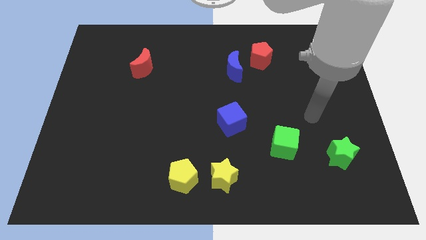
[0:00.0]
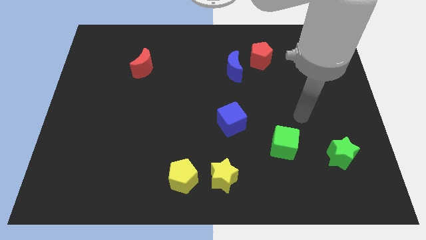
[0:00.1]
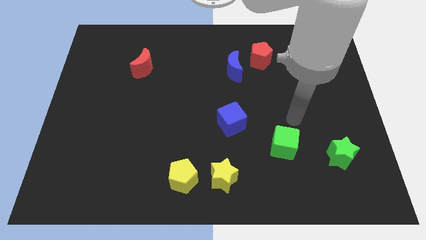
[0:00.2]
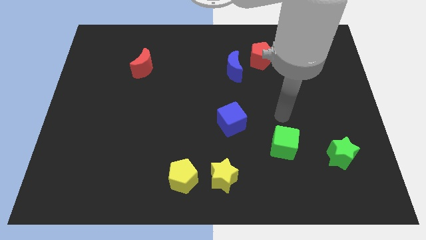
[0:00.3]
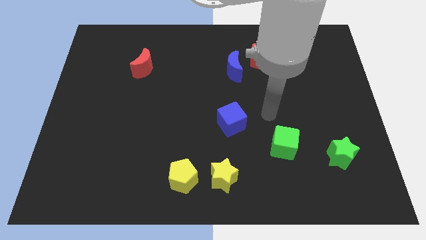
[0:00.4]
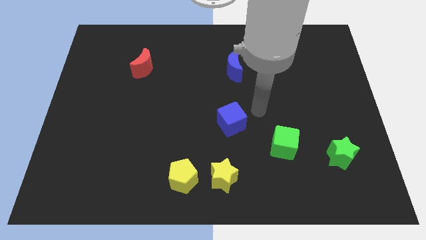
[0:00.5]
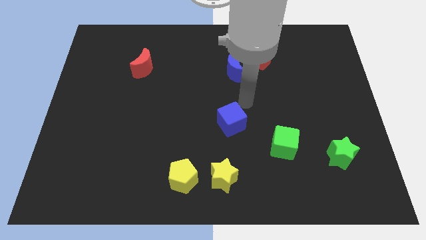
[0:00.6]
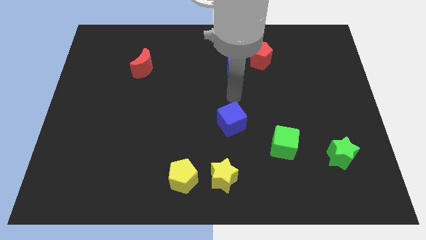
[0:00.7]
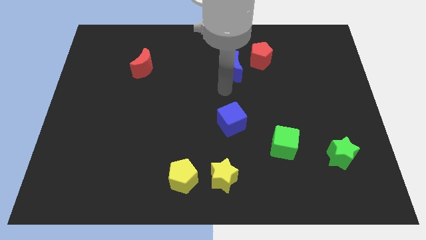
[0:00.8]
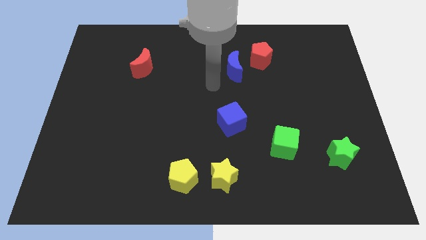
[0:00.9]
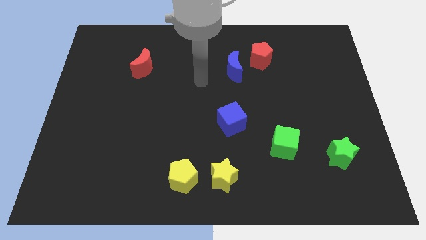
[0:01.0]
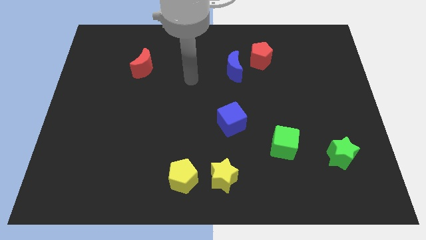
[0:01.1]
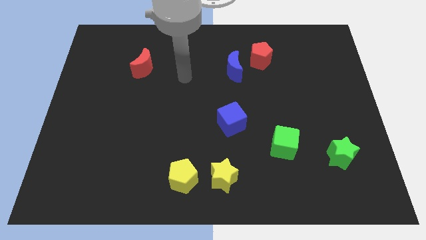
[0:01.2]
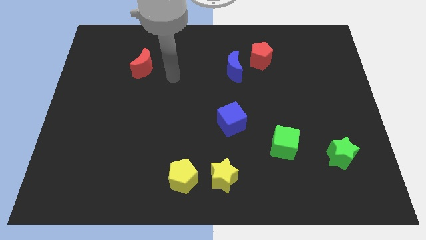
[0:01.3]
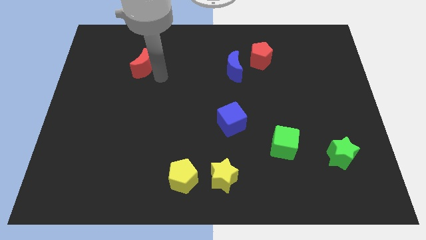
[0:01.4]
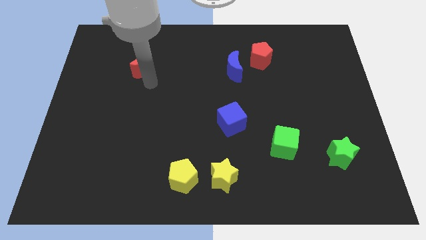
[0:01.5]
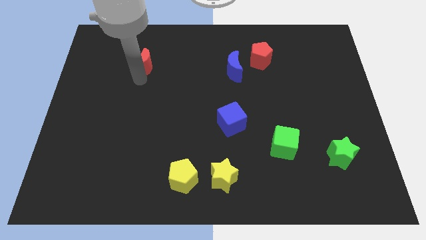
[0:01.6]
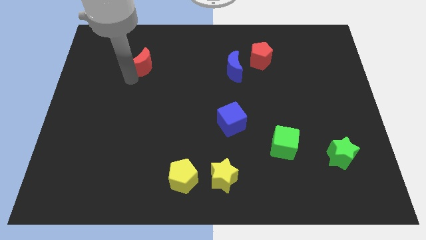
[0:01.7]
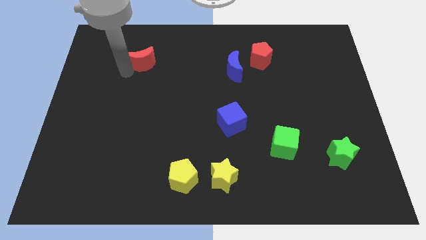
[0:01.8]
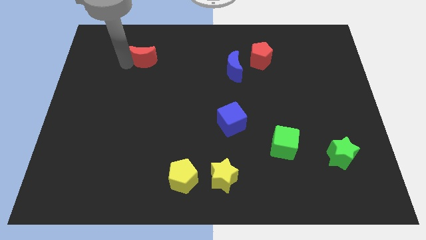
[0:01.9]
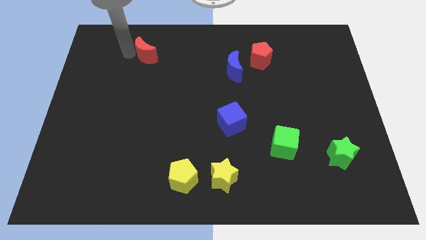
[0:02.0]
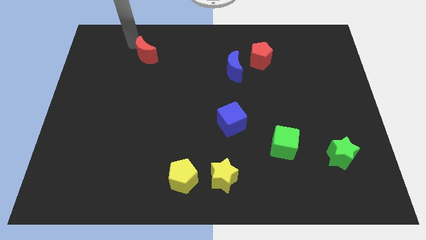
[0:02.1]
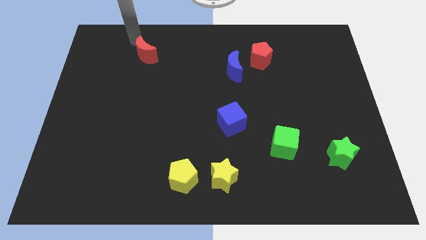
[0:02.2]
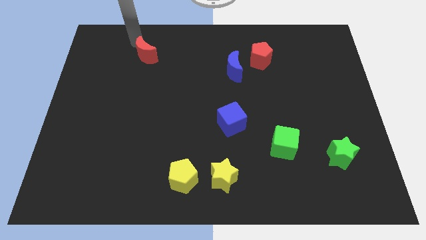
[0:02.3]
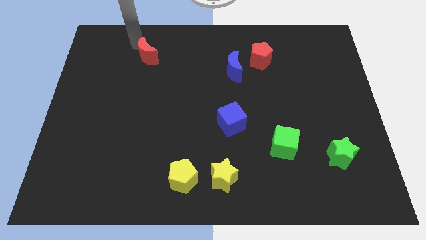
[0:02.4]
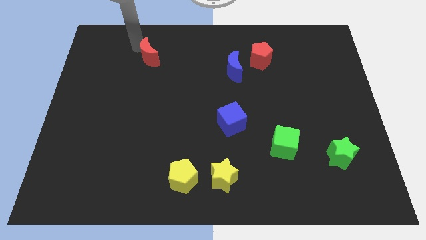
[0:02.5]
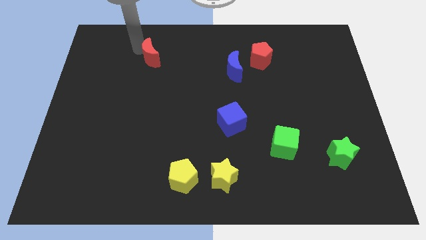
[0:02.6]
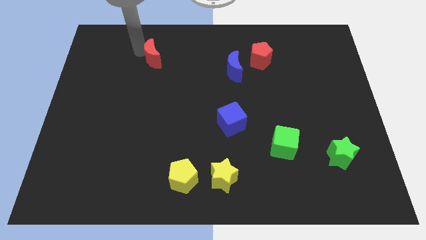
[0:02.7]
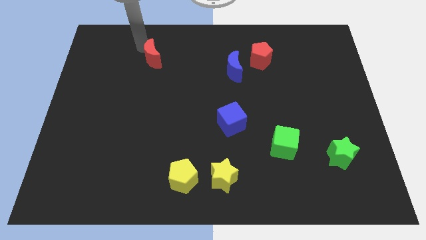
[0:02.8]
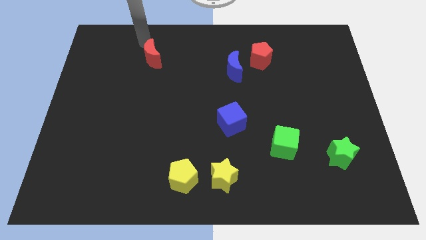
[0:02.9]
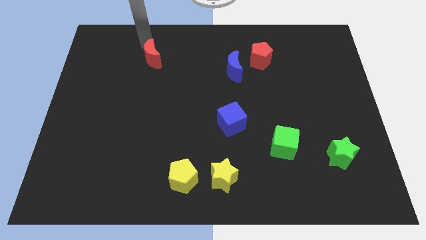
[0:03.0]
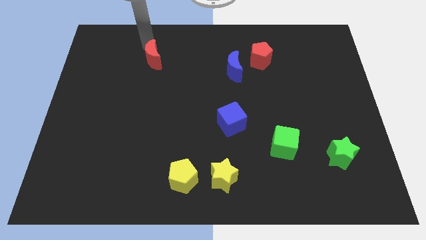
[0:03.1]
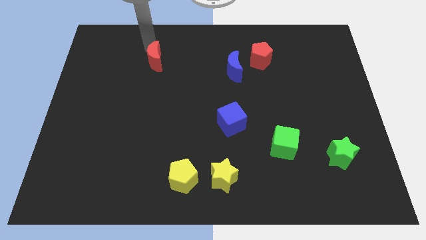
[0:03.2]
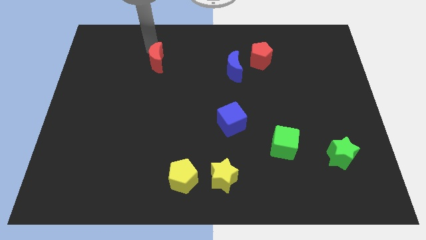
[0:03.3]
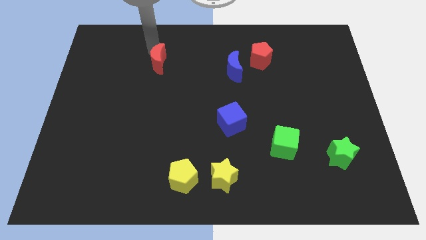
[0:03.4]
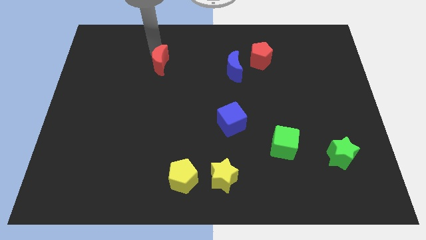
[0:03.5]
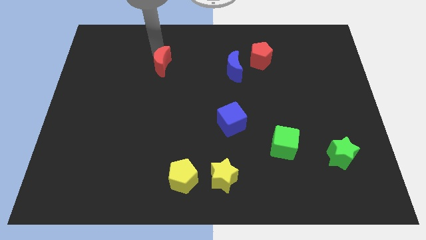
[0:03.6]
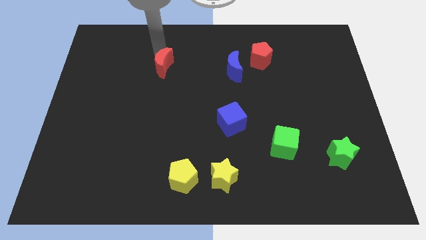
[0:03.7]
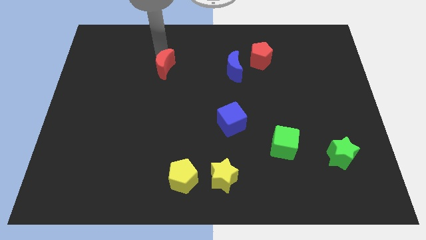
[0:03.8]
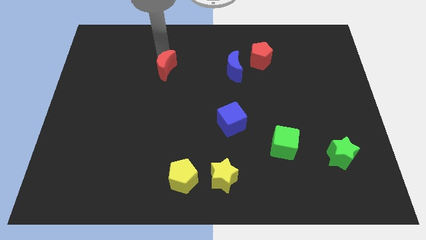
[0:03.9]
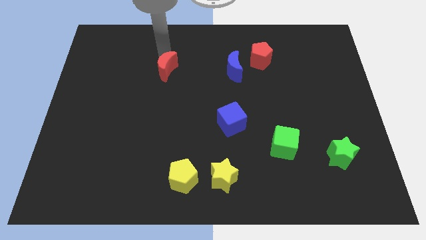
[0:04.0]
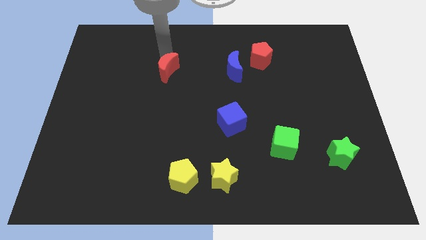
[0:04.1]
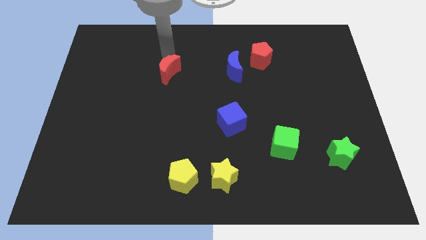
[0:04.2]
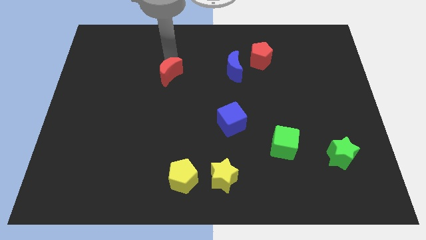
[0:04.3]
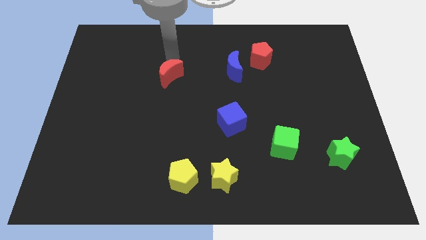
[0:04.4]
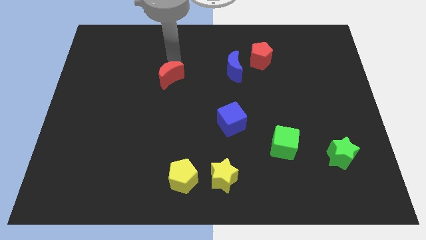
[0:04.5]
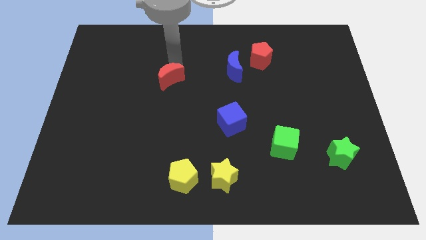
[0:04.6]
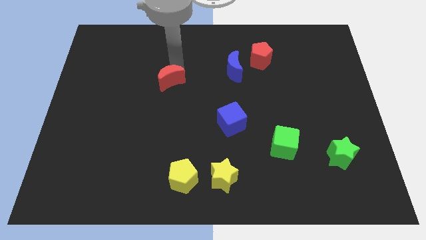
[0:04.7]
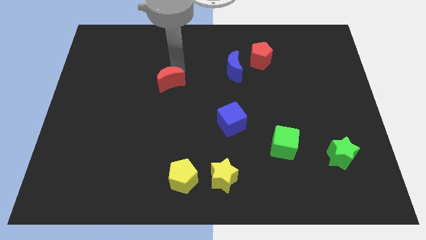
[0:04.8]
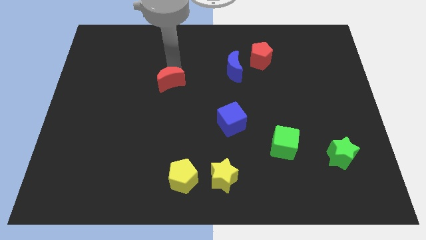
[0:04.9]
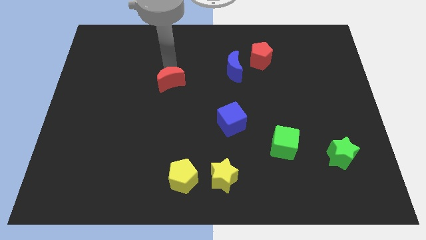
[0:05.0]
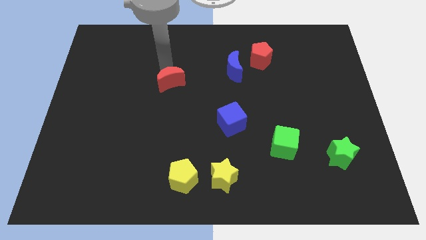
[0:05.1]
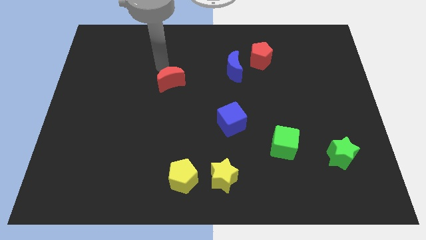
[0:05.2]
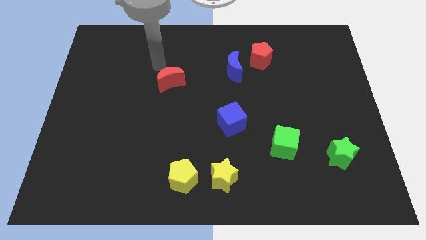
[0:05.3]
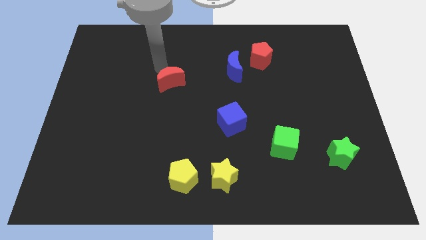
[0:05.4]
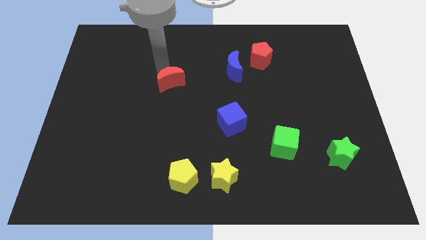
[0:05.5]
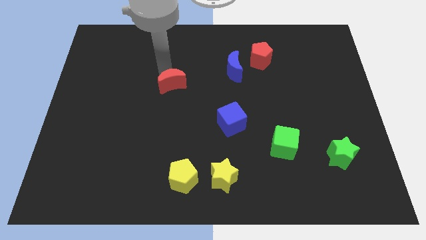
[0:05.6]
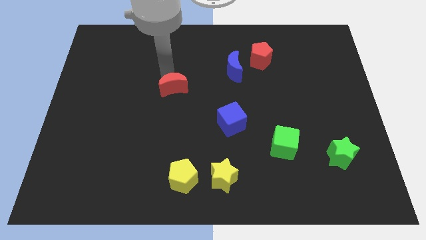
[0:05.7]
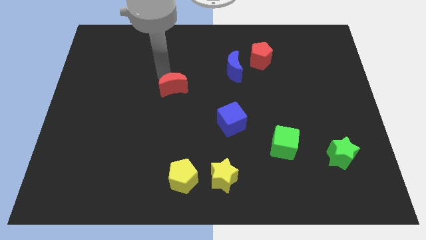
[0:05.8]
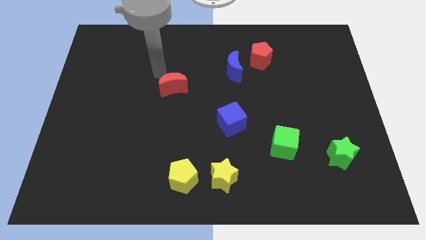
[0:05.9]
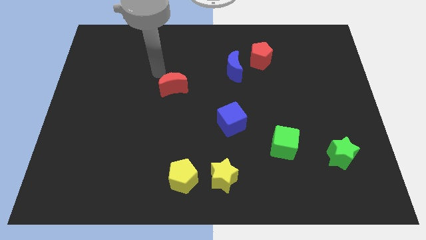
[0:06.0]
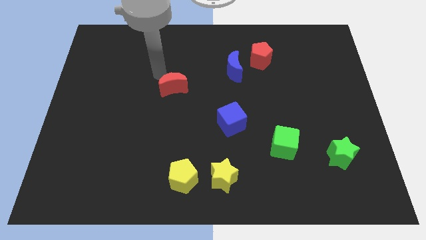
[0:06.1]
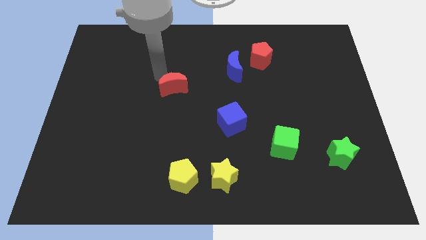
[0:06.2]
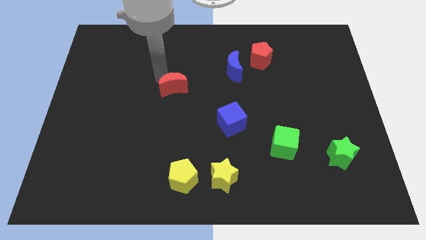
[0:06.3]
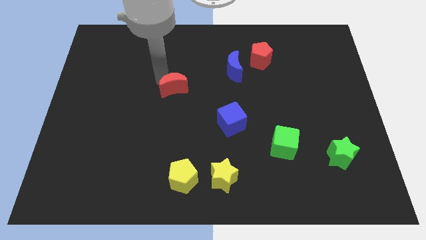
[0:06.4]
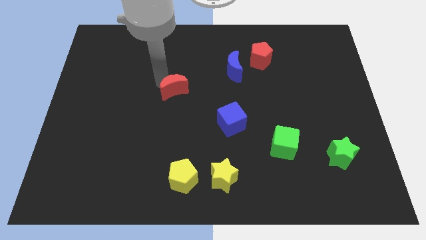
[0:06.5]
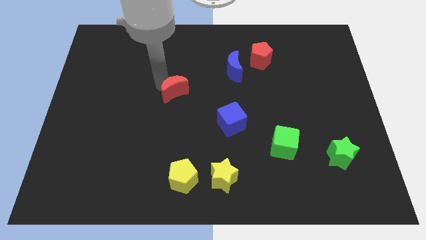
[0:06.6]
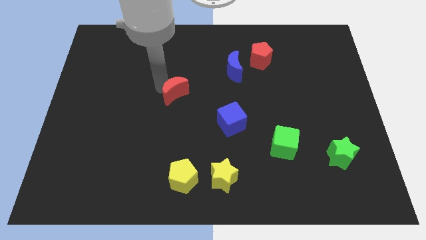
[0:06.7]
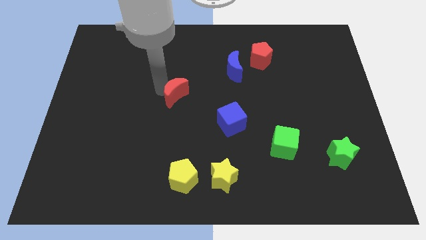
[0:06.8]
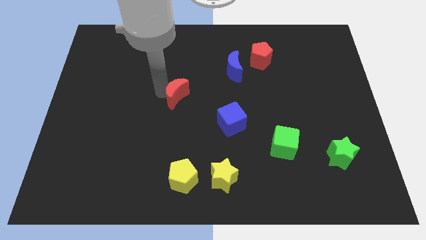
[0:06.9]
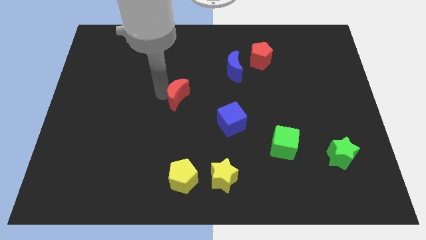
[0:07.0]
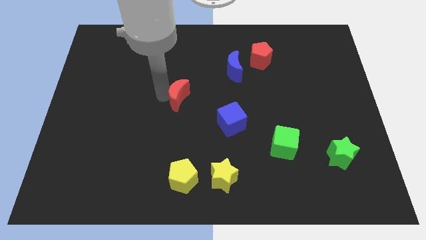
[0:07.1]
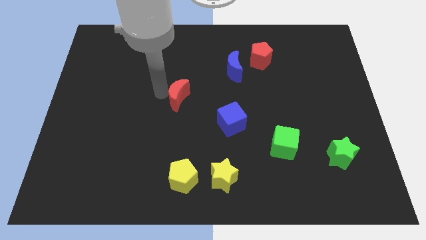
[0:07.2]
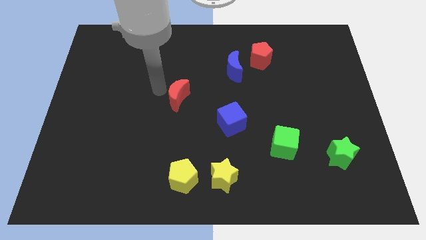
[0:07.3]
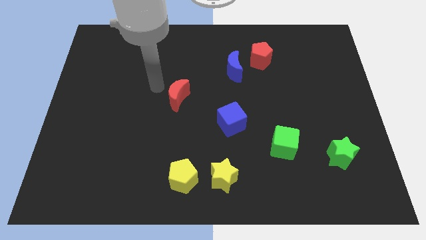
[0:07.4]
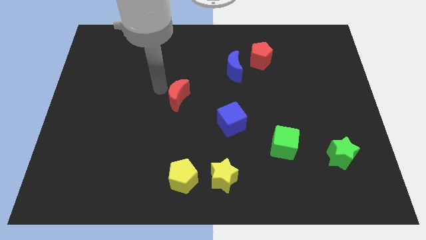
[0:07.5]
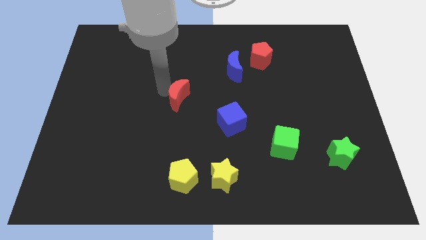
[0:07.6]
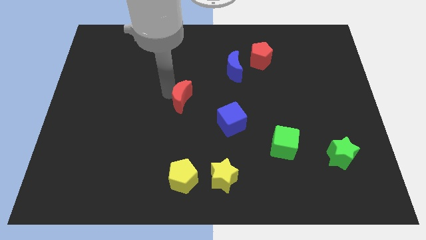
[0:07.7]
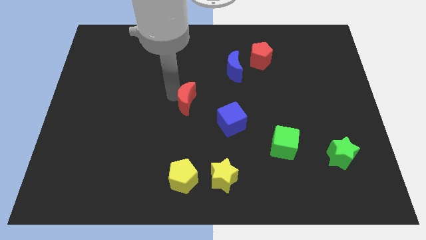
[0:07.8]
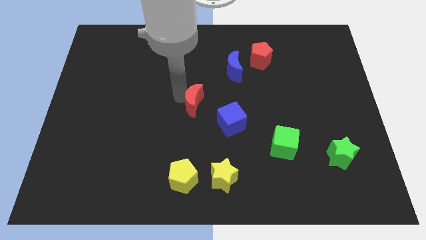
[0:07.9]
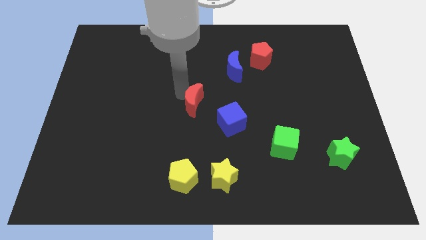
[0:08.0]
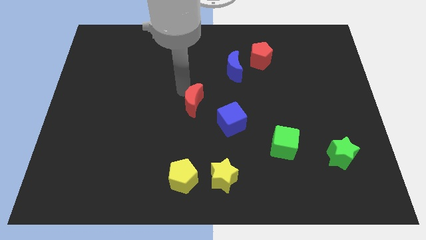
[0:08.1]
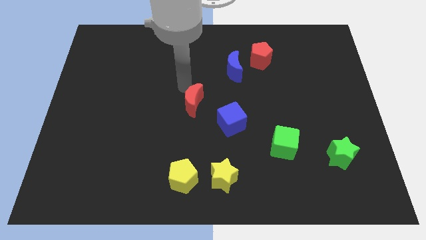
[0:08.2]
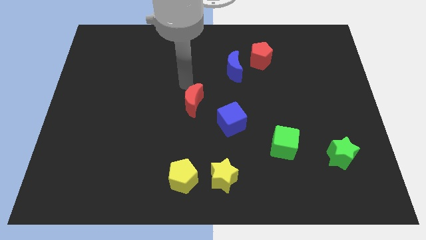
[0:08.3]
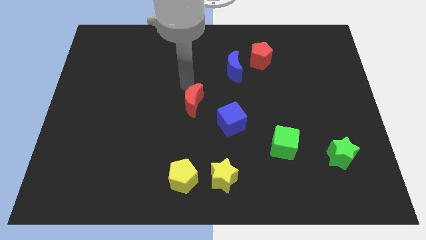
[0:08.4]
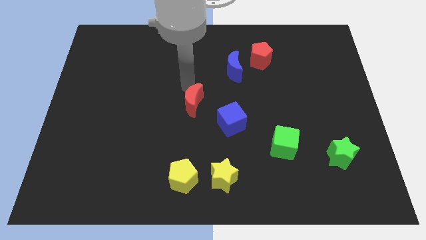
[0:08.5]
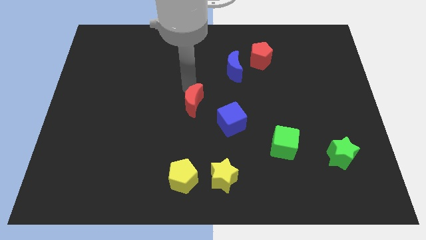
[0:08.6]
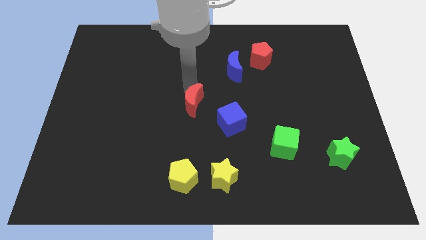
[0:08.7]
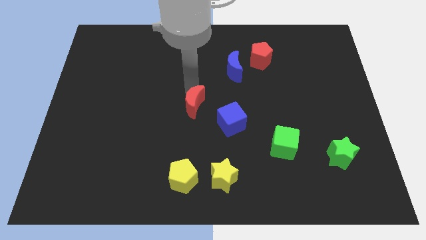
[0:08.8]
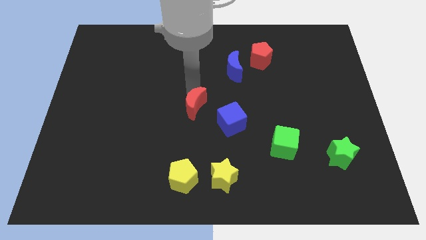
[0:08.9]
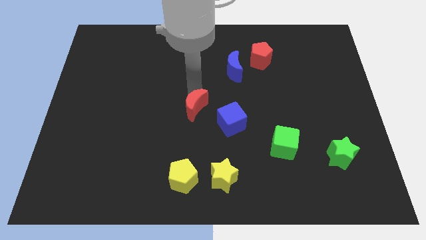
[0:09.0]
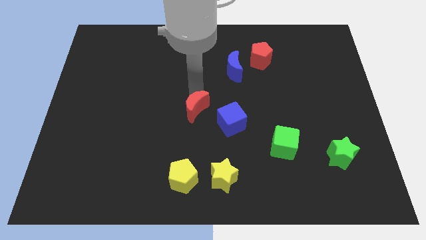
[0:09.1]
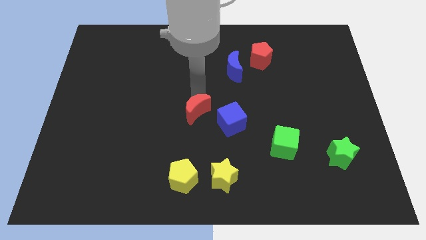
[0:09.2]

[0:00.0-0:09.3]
move the red moon downwards and right
